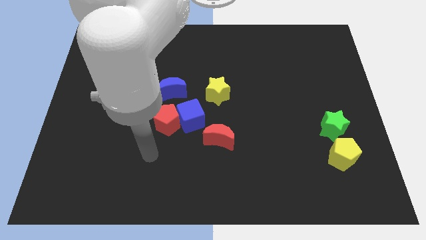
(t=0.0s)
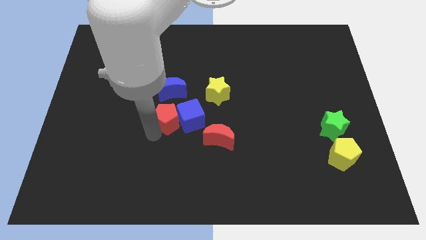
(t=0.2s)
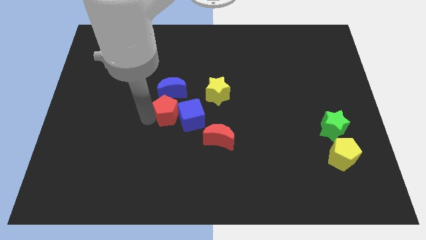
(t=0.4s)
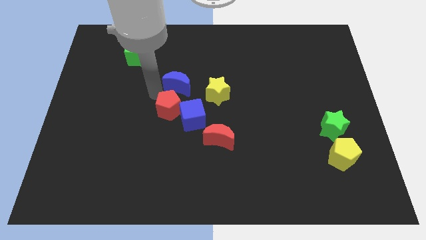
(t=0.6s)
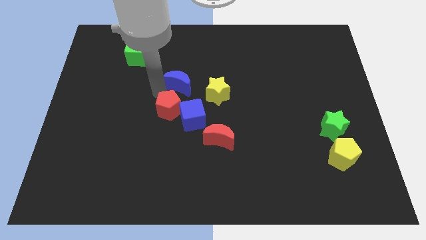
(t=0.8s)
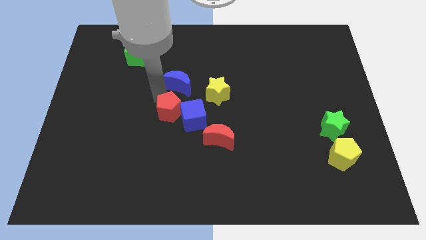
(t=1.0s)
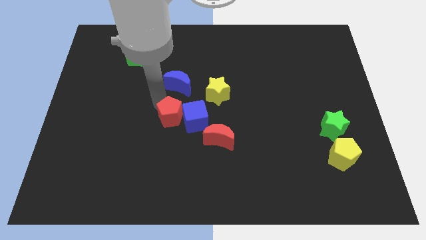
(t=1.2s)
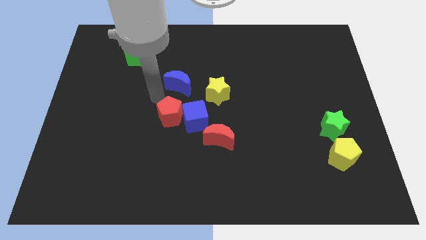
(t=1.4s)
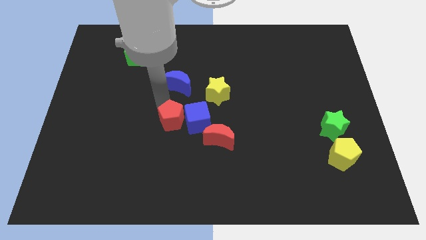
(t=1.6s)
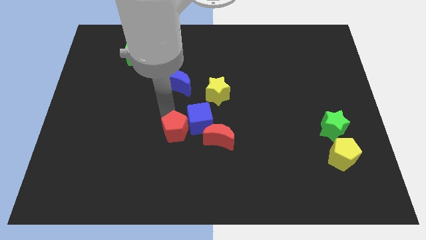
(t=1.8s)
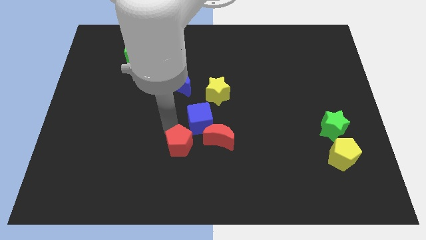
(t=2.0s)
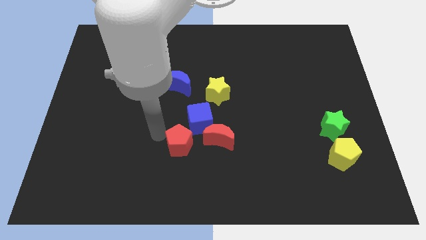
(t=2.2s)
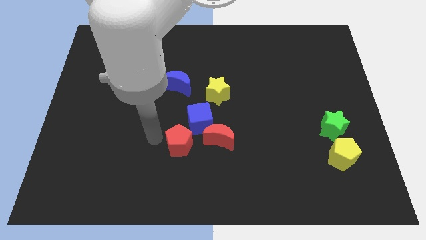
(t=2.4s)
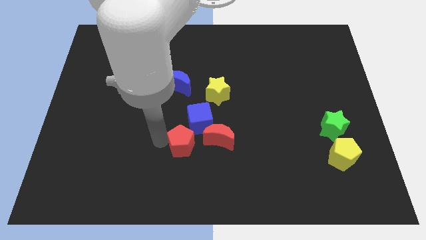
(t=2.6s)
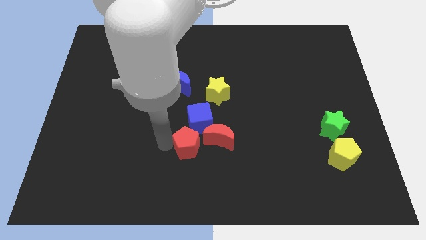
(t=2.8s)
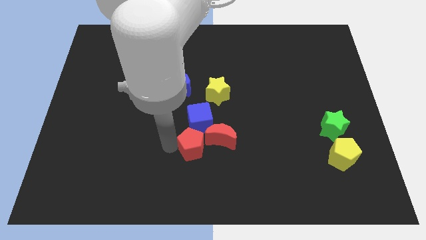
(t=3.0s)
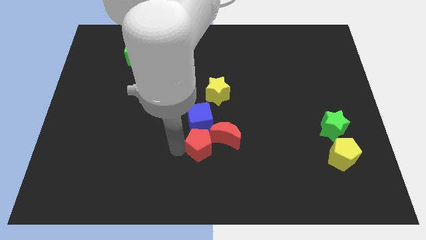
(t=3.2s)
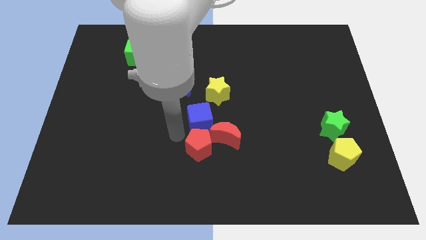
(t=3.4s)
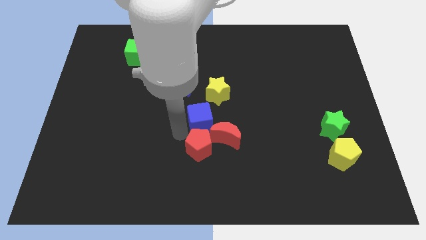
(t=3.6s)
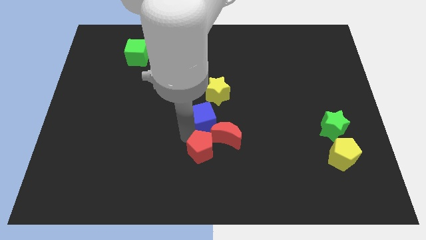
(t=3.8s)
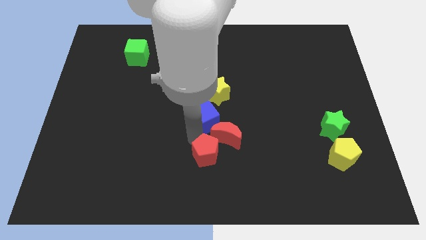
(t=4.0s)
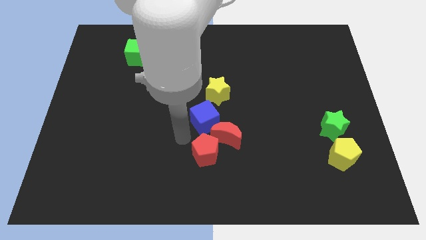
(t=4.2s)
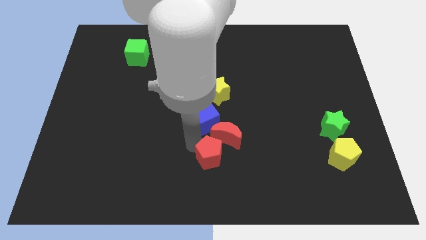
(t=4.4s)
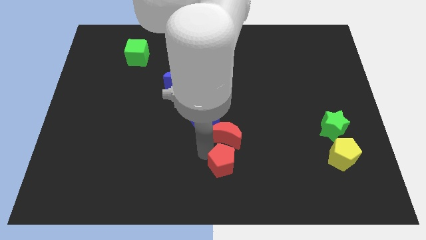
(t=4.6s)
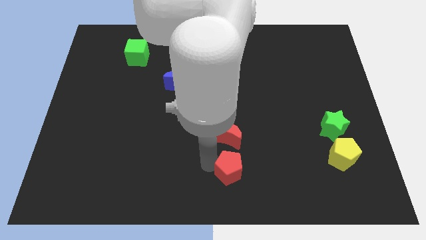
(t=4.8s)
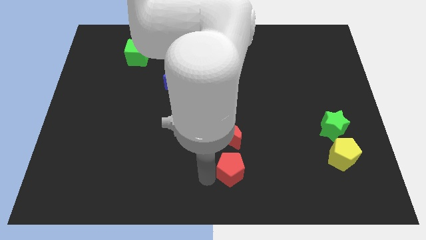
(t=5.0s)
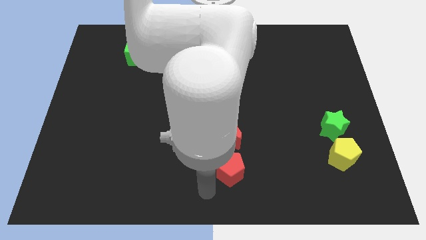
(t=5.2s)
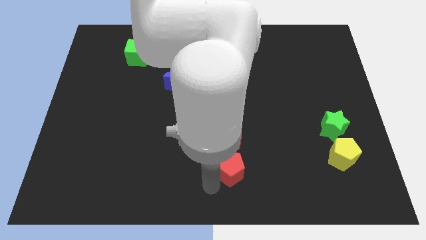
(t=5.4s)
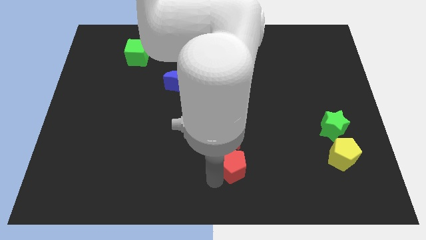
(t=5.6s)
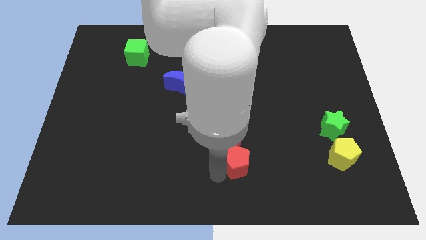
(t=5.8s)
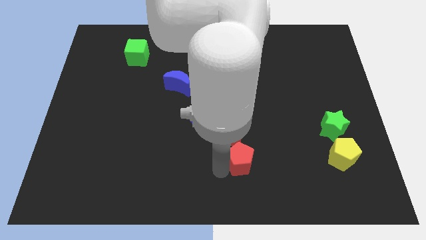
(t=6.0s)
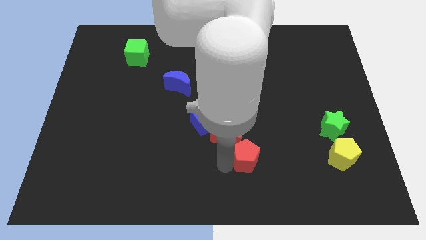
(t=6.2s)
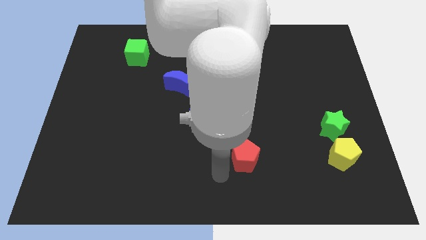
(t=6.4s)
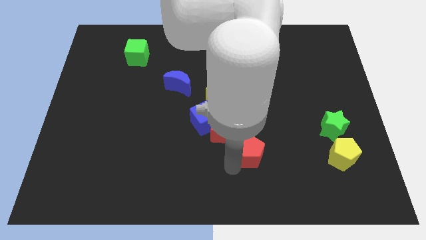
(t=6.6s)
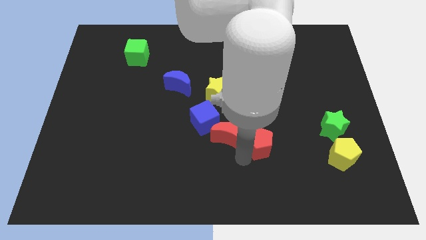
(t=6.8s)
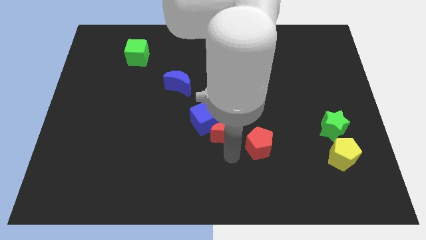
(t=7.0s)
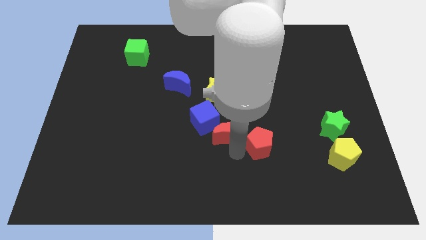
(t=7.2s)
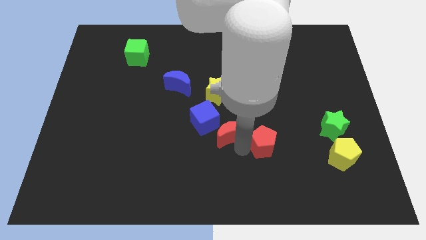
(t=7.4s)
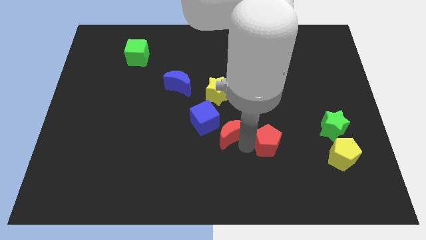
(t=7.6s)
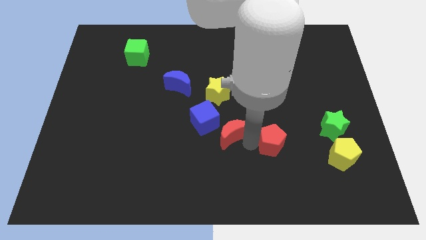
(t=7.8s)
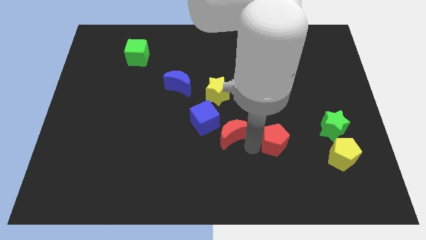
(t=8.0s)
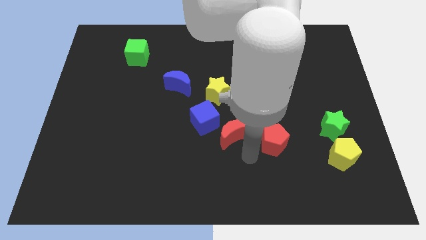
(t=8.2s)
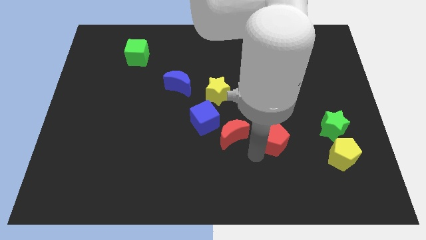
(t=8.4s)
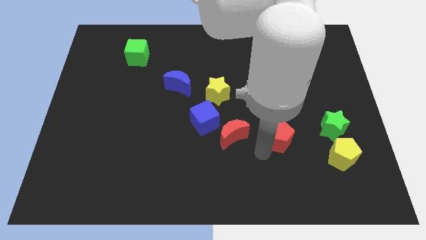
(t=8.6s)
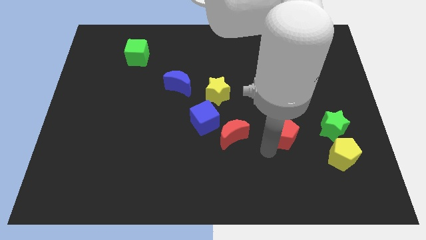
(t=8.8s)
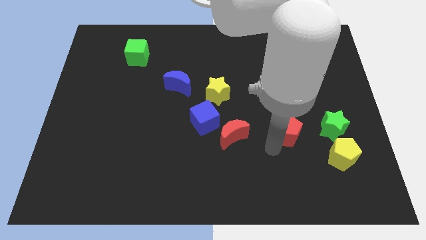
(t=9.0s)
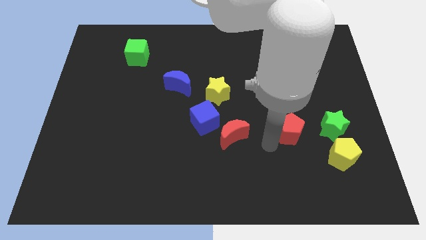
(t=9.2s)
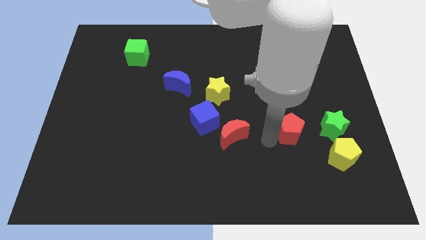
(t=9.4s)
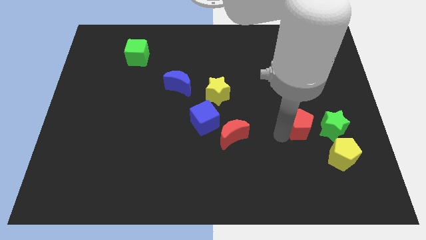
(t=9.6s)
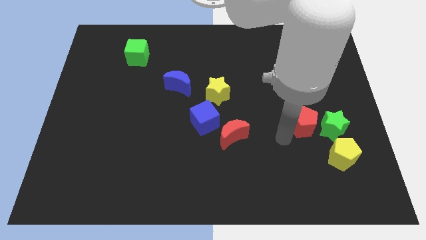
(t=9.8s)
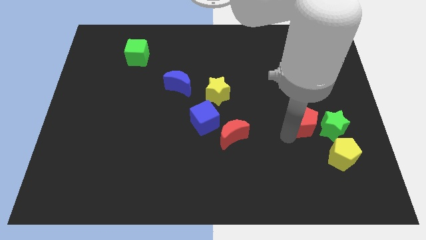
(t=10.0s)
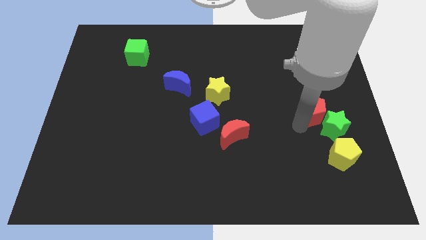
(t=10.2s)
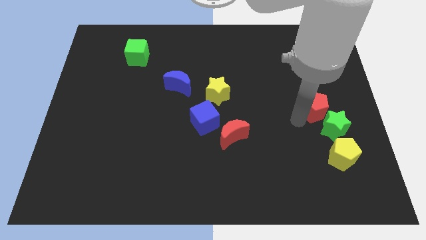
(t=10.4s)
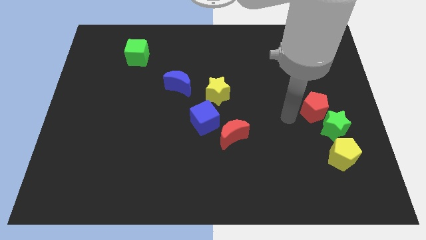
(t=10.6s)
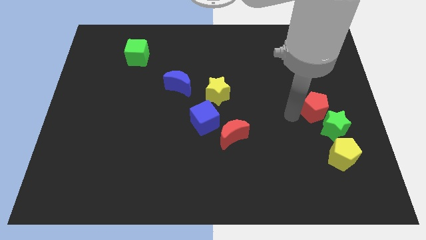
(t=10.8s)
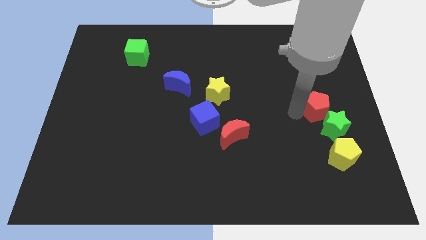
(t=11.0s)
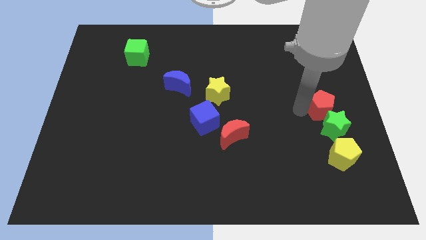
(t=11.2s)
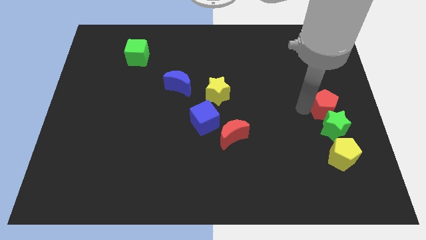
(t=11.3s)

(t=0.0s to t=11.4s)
slide the red pentagon to the right side of the board

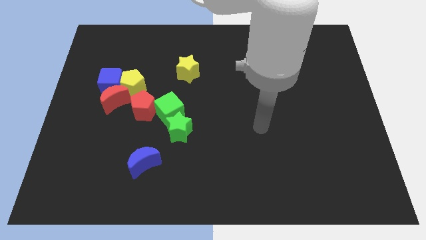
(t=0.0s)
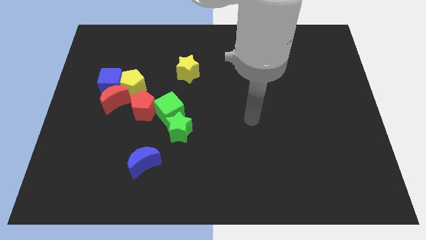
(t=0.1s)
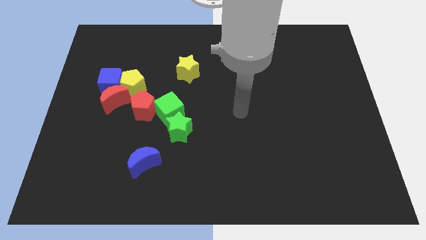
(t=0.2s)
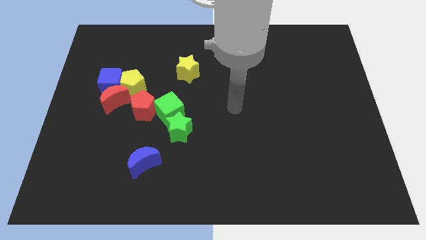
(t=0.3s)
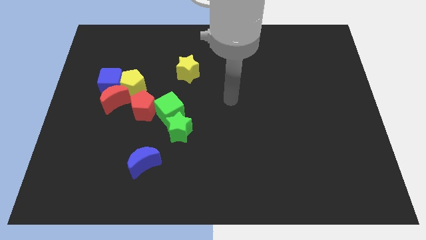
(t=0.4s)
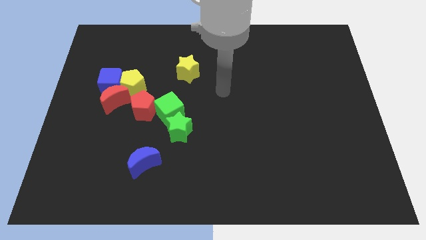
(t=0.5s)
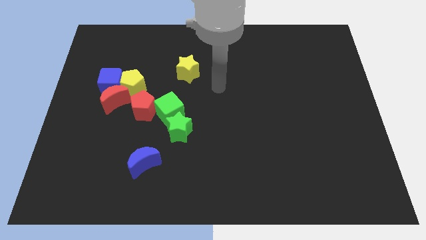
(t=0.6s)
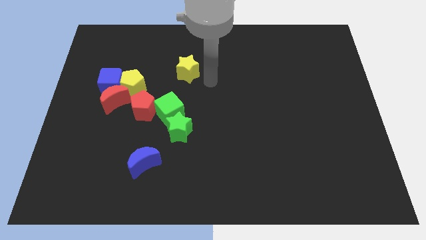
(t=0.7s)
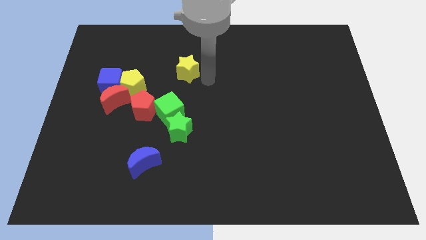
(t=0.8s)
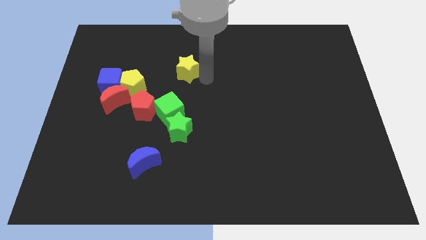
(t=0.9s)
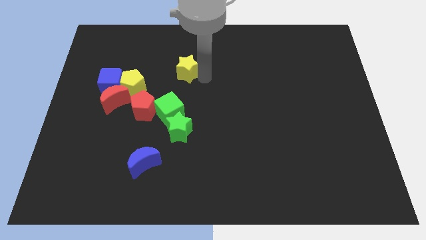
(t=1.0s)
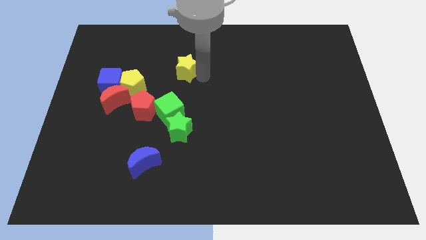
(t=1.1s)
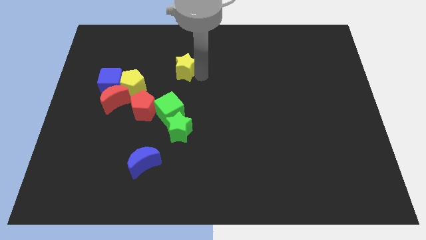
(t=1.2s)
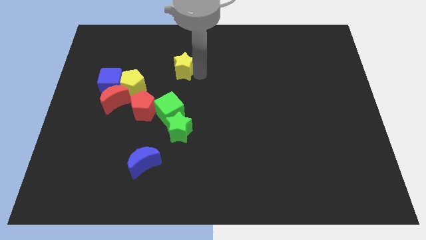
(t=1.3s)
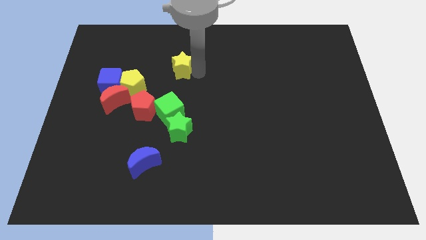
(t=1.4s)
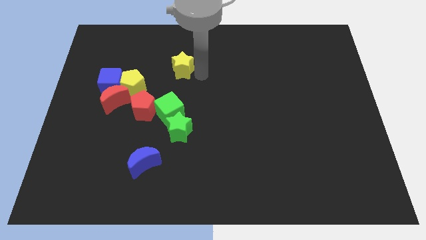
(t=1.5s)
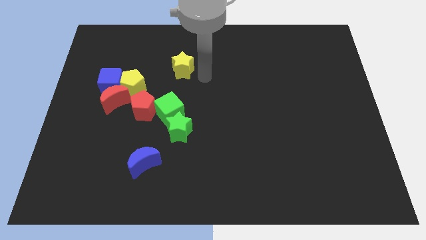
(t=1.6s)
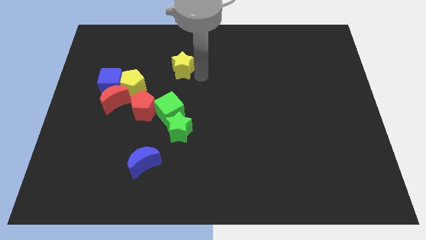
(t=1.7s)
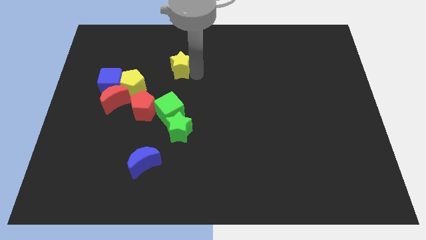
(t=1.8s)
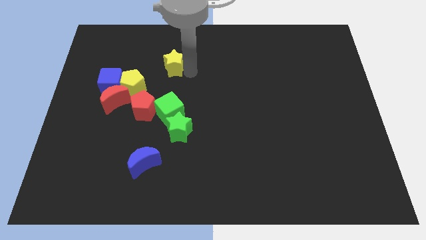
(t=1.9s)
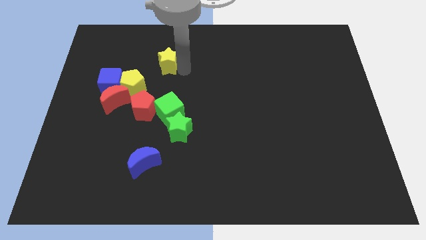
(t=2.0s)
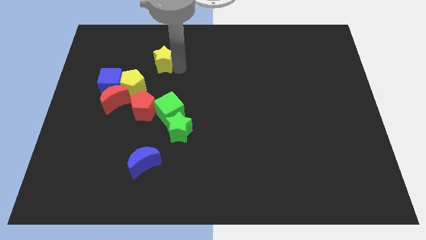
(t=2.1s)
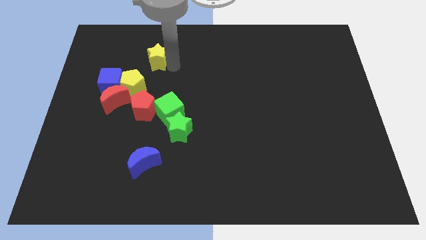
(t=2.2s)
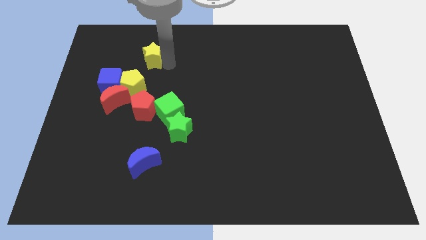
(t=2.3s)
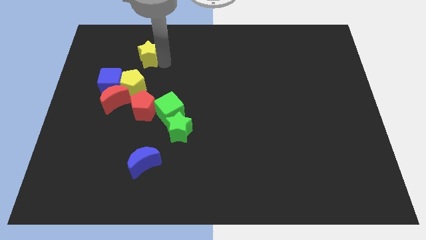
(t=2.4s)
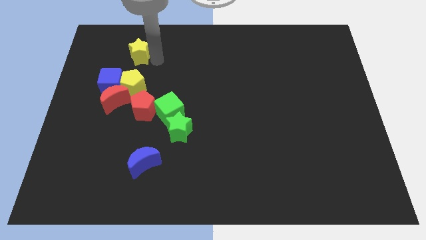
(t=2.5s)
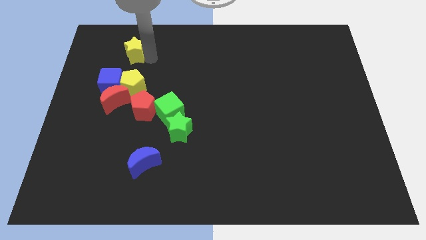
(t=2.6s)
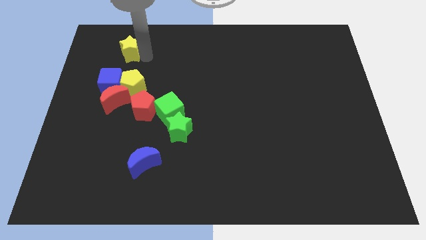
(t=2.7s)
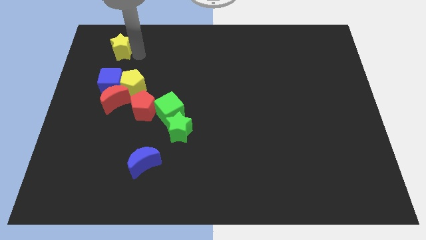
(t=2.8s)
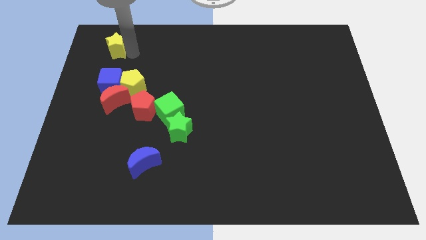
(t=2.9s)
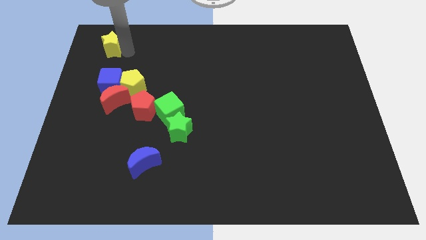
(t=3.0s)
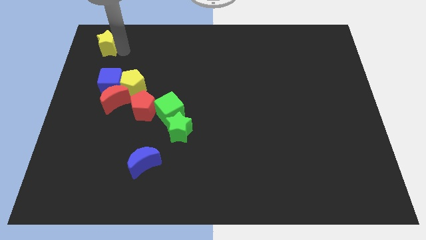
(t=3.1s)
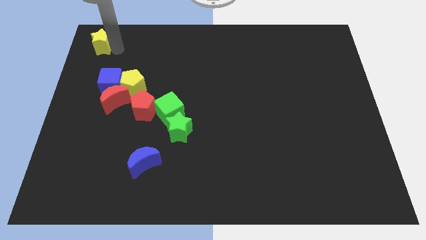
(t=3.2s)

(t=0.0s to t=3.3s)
slide the yellow star to the top left corner
